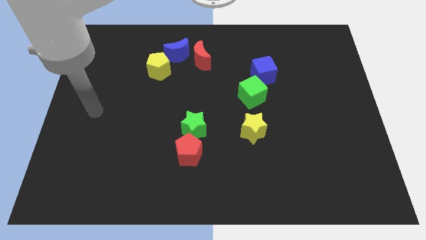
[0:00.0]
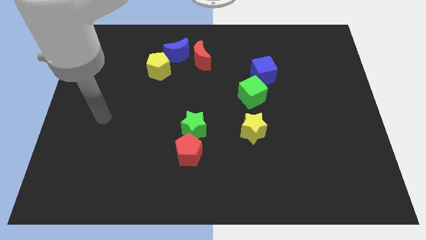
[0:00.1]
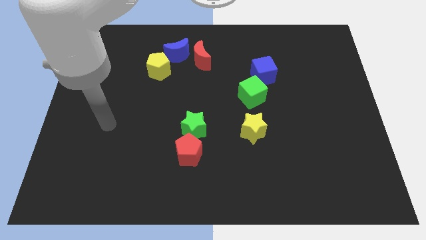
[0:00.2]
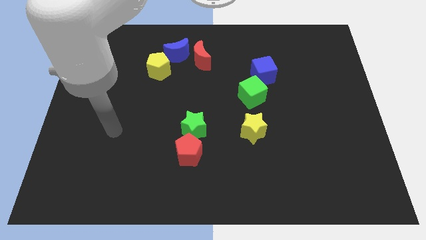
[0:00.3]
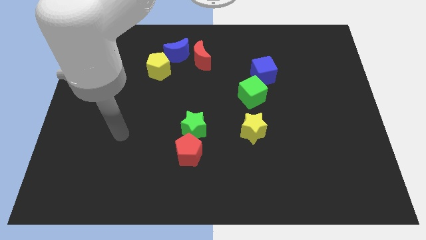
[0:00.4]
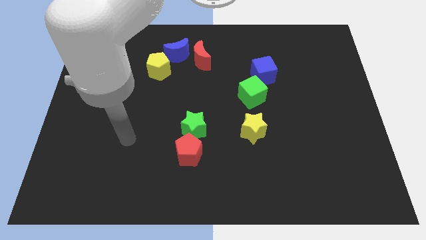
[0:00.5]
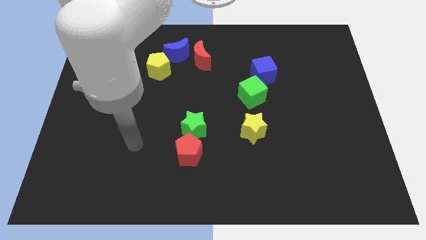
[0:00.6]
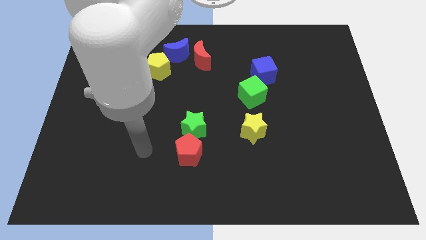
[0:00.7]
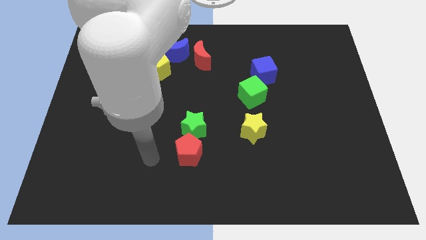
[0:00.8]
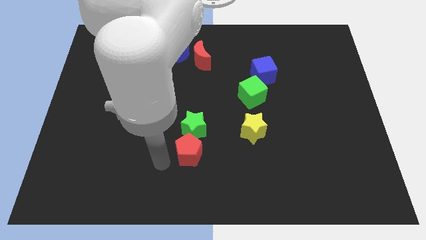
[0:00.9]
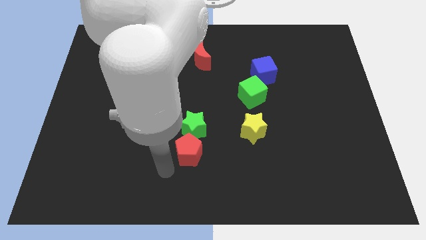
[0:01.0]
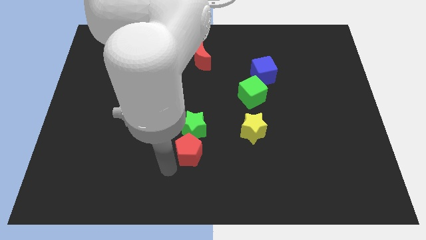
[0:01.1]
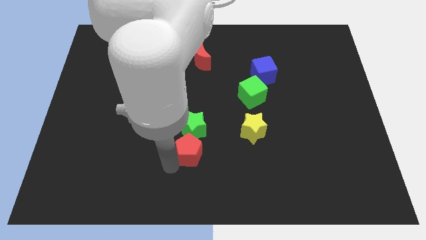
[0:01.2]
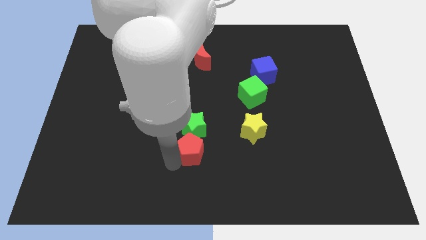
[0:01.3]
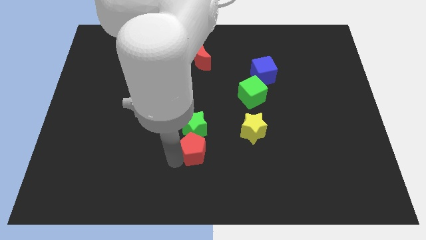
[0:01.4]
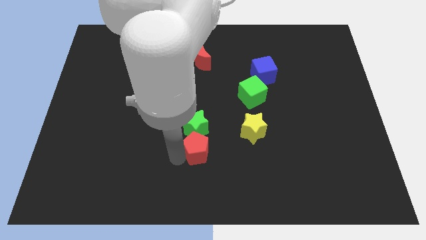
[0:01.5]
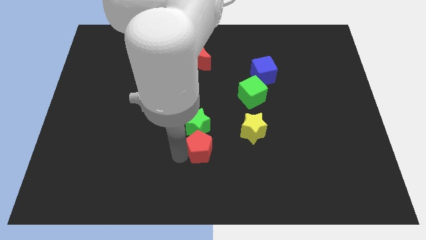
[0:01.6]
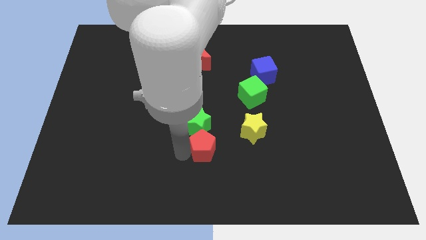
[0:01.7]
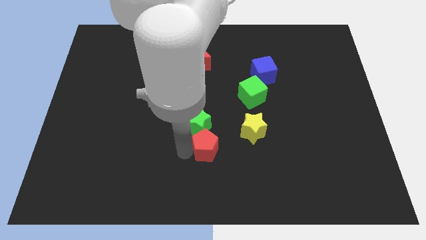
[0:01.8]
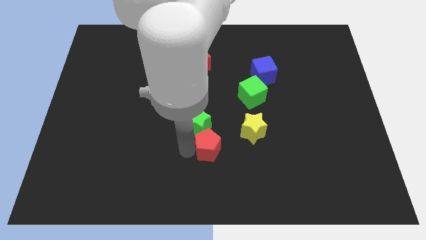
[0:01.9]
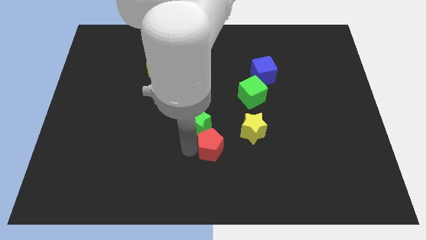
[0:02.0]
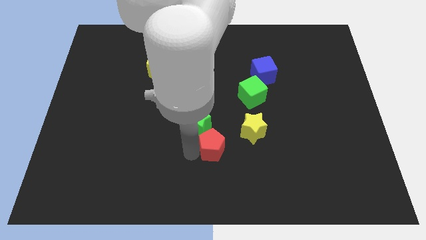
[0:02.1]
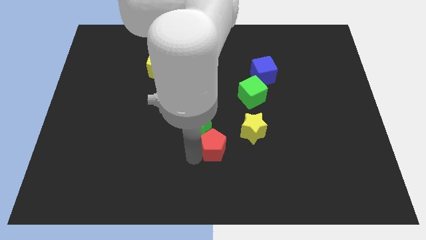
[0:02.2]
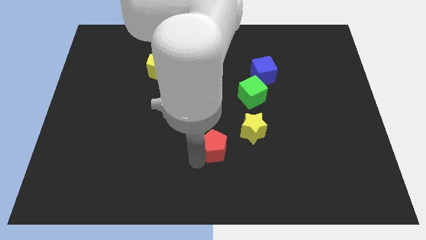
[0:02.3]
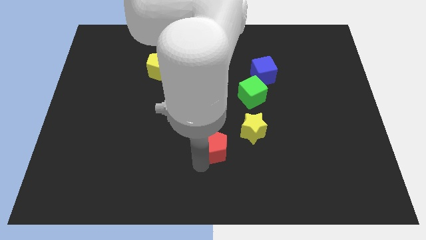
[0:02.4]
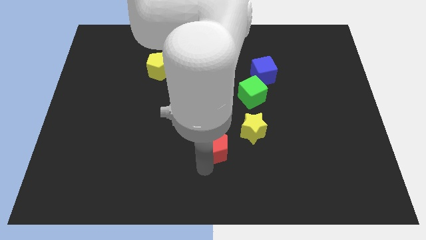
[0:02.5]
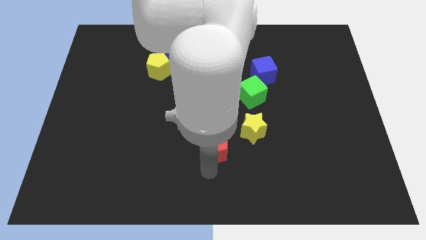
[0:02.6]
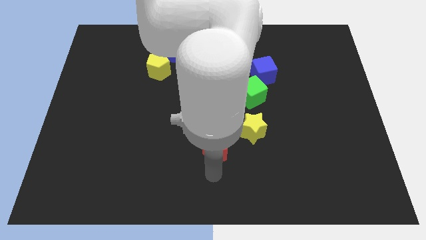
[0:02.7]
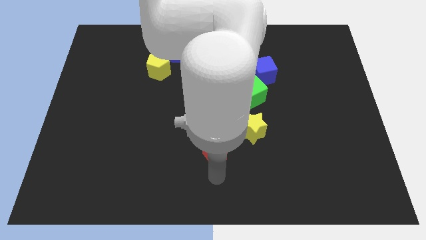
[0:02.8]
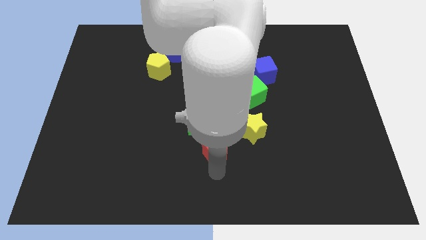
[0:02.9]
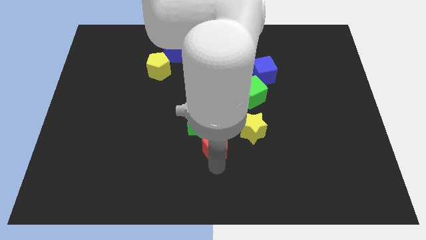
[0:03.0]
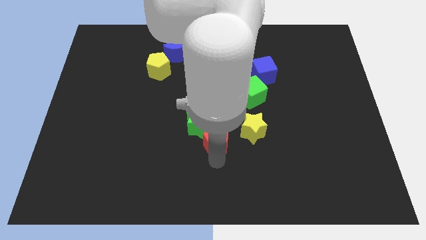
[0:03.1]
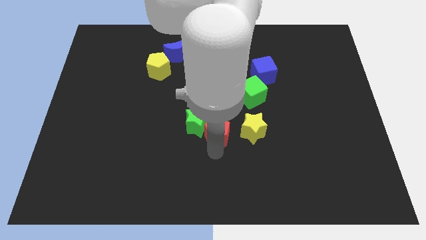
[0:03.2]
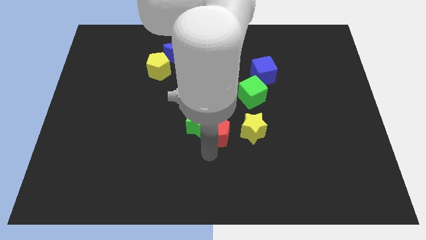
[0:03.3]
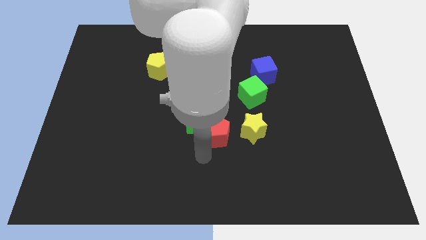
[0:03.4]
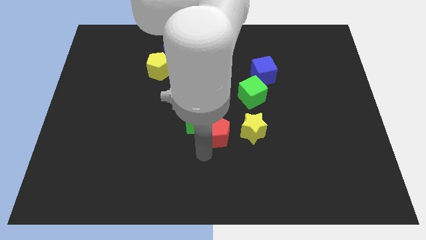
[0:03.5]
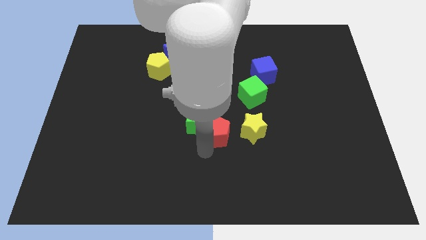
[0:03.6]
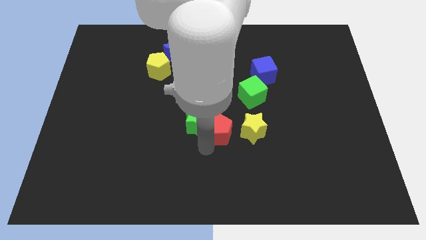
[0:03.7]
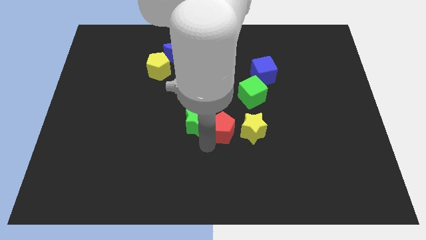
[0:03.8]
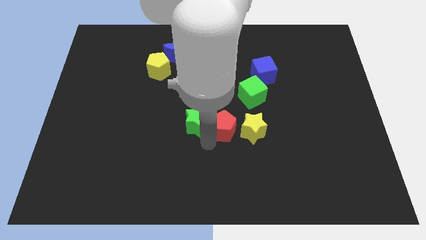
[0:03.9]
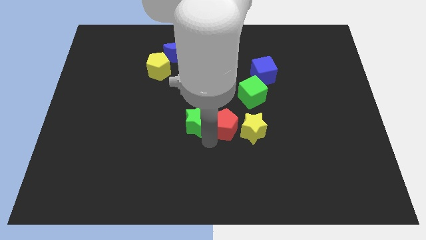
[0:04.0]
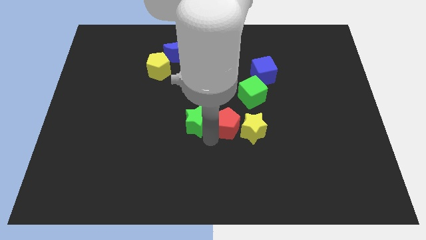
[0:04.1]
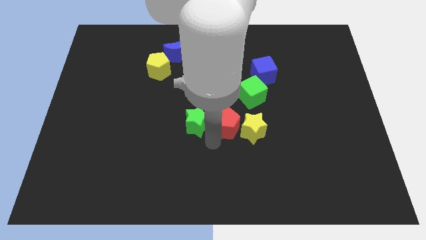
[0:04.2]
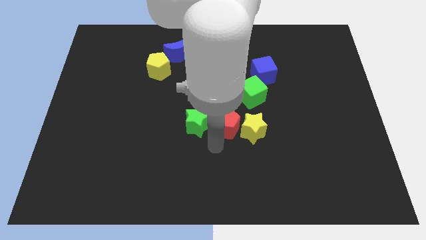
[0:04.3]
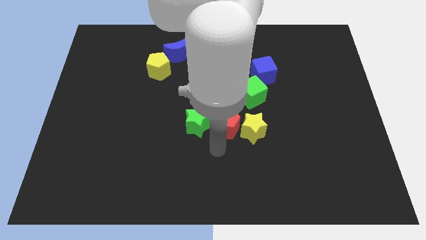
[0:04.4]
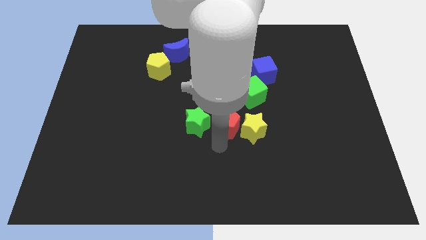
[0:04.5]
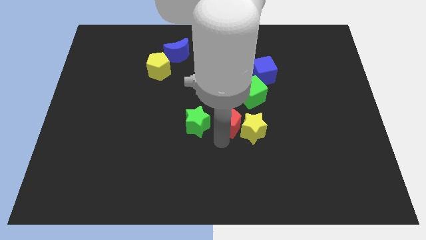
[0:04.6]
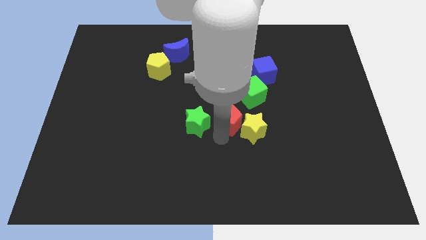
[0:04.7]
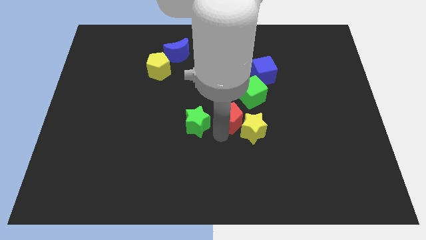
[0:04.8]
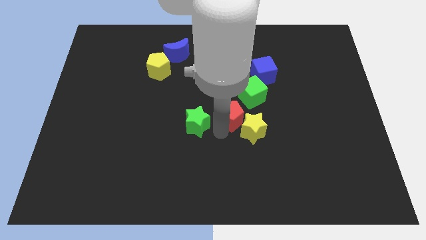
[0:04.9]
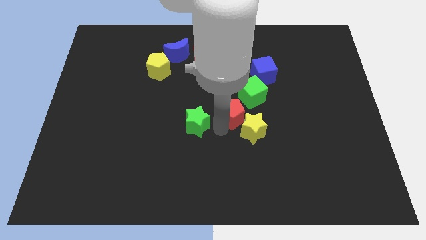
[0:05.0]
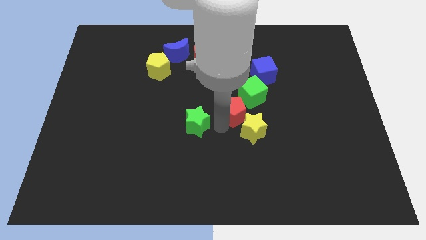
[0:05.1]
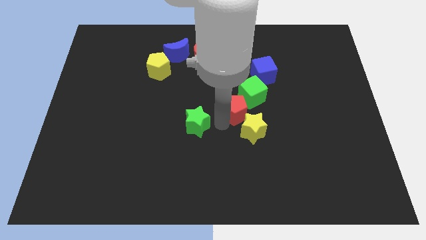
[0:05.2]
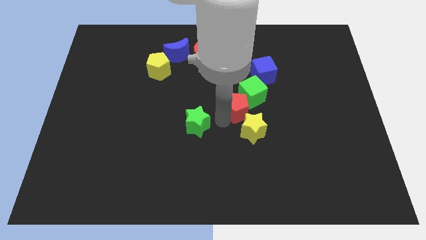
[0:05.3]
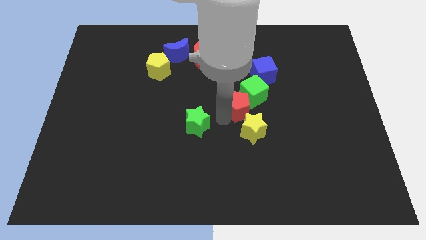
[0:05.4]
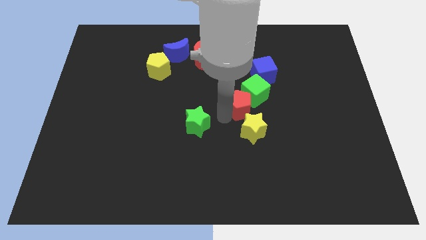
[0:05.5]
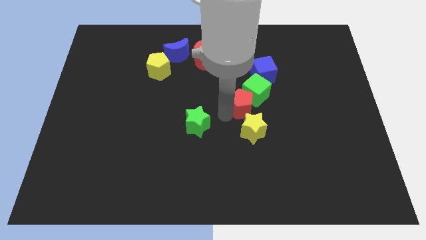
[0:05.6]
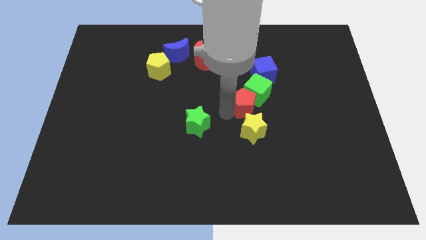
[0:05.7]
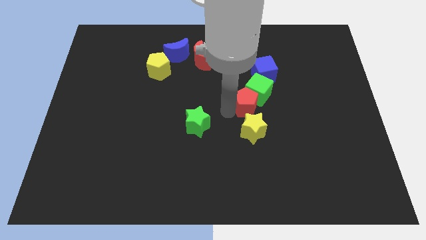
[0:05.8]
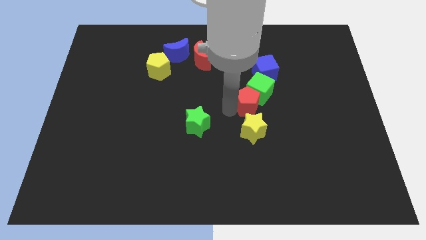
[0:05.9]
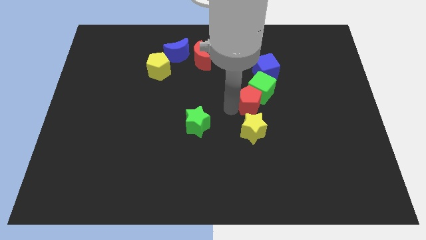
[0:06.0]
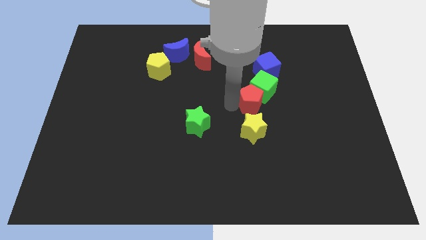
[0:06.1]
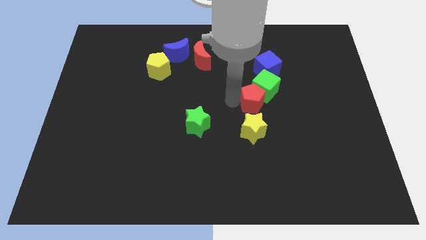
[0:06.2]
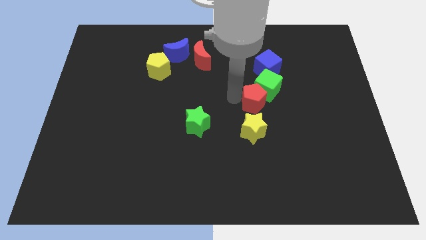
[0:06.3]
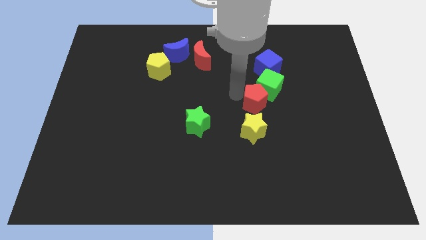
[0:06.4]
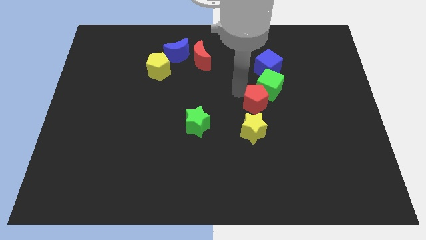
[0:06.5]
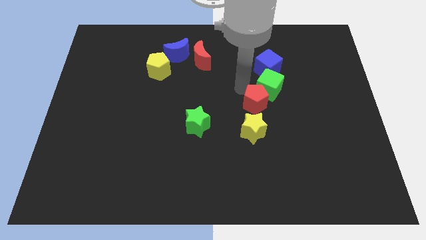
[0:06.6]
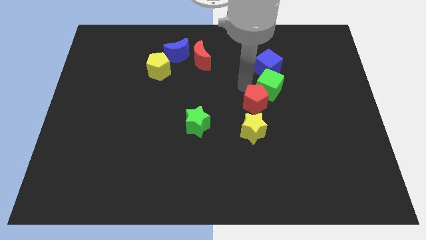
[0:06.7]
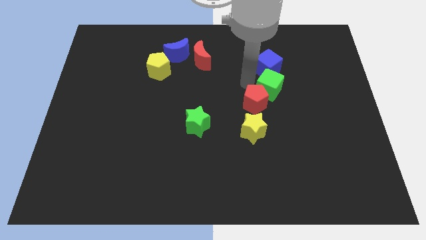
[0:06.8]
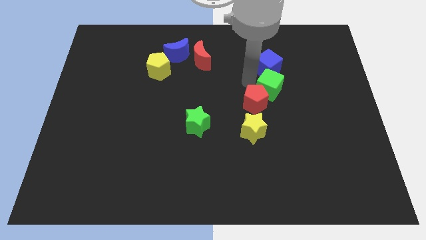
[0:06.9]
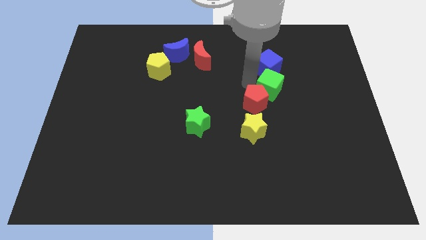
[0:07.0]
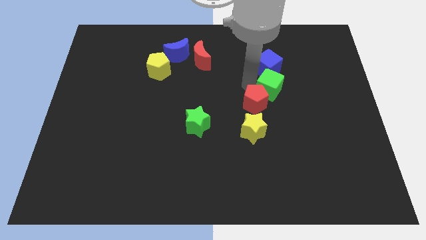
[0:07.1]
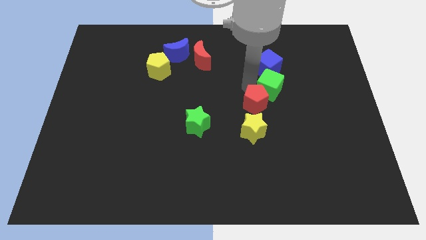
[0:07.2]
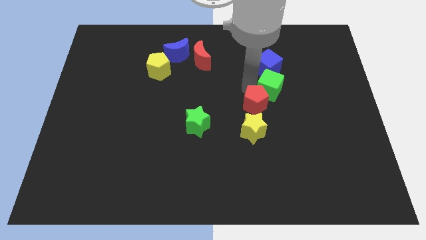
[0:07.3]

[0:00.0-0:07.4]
push the red pentagon to the top right of the yellow star
